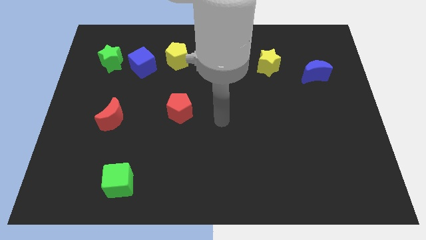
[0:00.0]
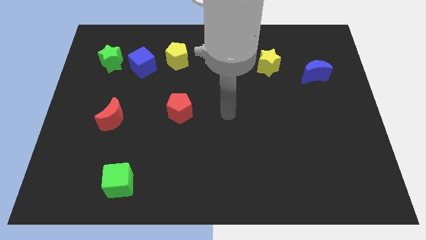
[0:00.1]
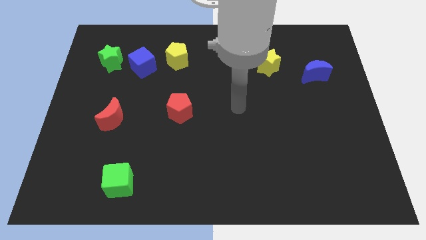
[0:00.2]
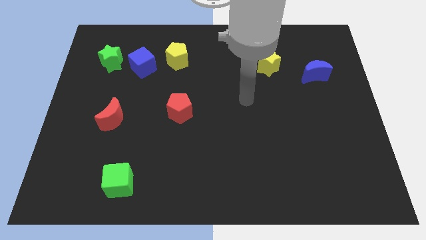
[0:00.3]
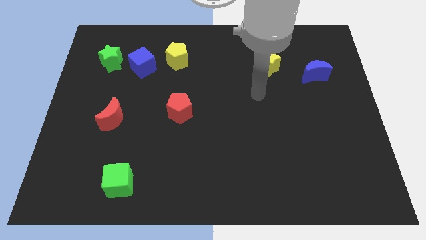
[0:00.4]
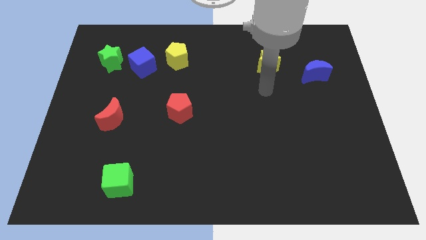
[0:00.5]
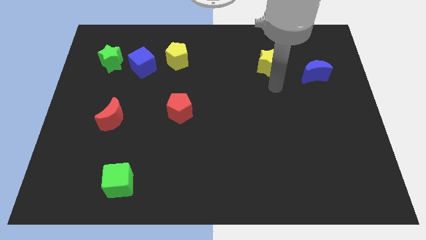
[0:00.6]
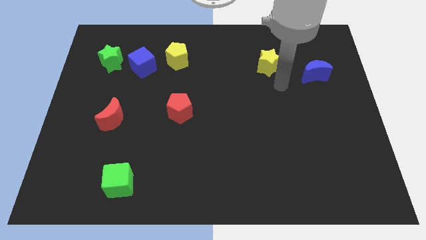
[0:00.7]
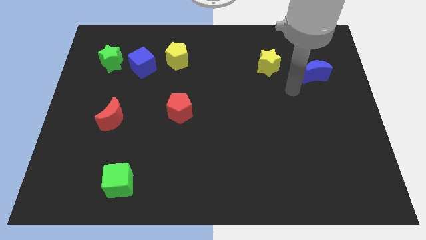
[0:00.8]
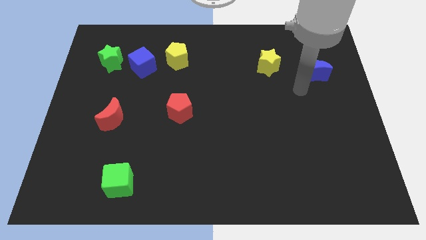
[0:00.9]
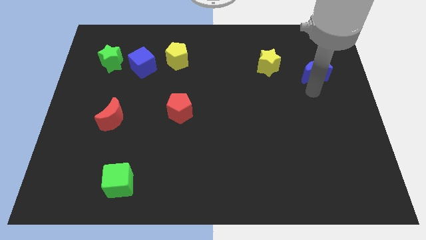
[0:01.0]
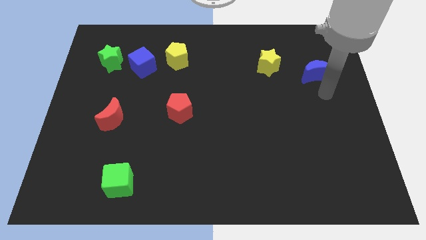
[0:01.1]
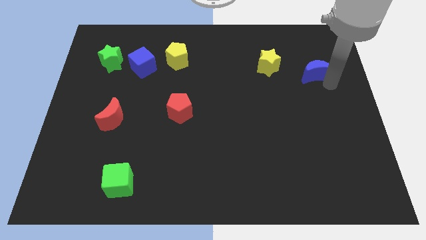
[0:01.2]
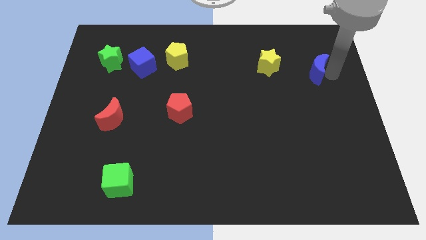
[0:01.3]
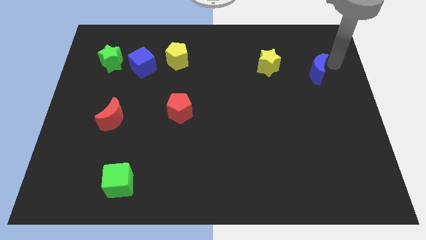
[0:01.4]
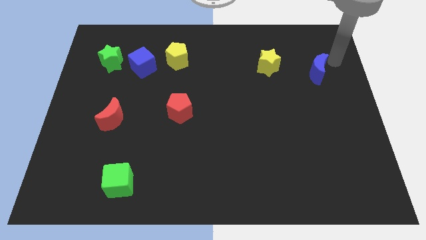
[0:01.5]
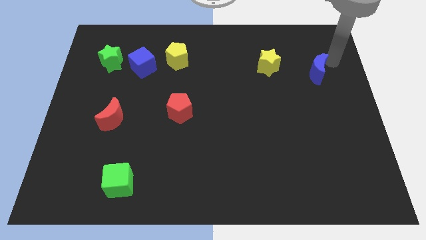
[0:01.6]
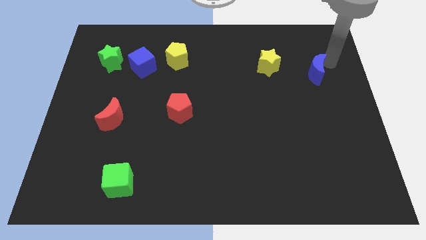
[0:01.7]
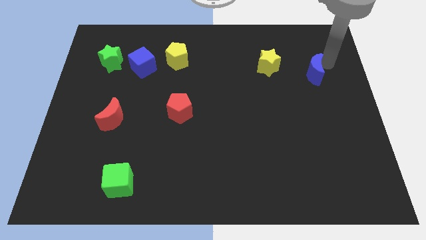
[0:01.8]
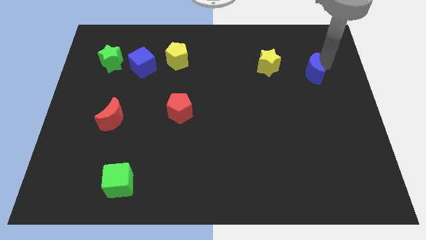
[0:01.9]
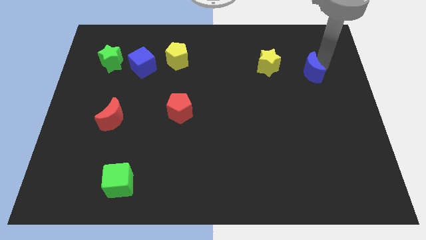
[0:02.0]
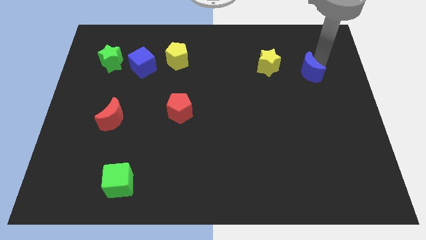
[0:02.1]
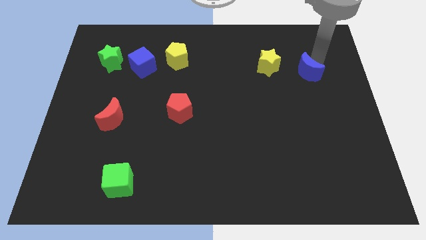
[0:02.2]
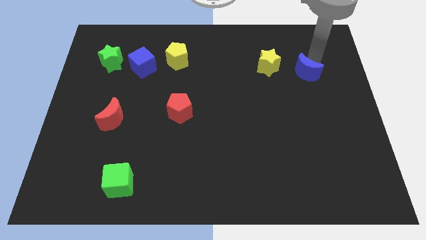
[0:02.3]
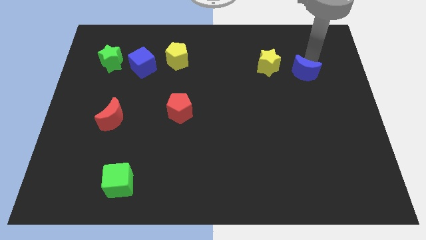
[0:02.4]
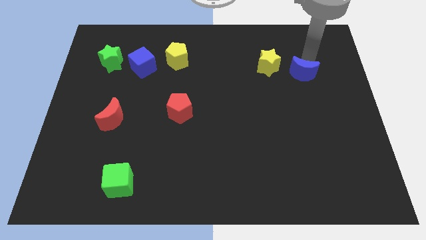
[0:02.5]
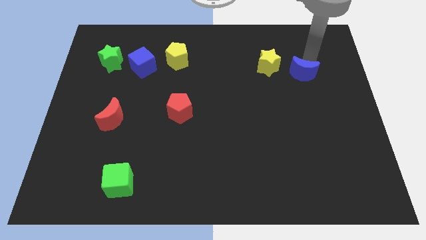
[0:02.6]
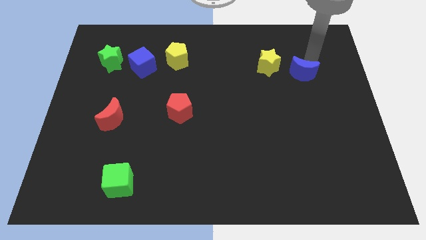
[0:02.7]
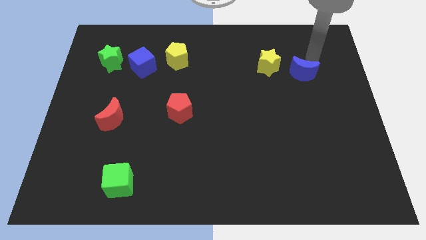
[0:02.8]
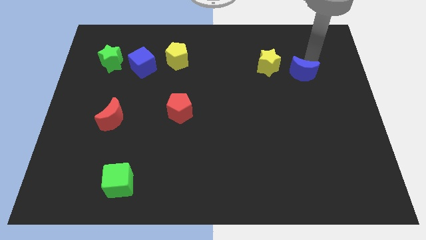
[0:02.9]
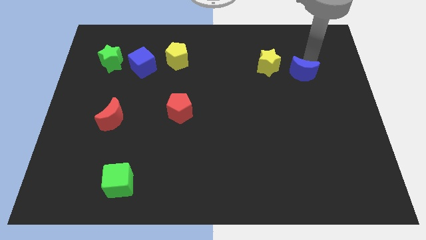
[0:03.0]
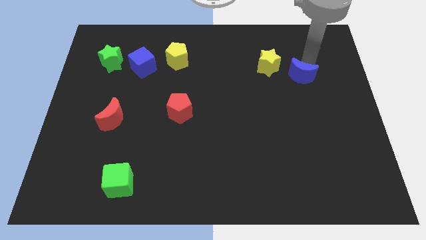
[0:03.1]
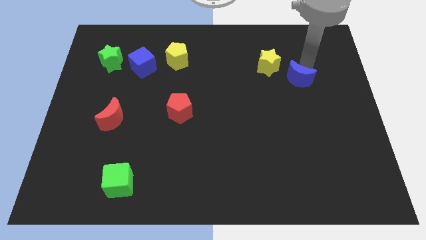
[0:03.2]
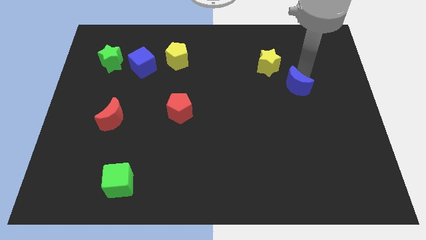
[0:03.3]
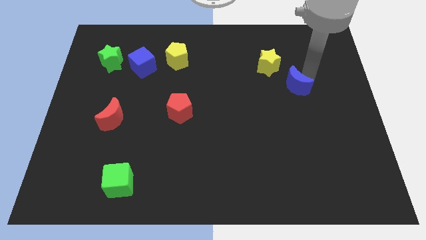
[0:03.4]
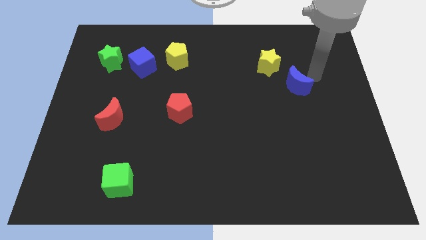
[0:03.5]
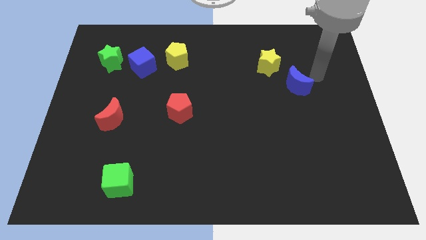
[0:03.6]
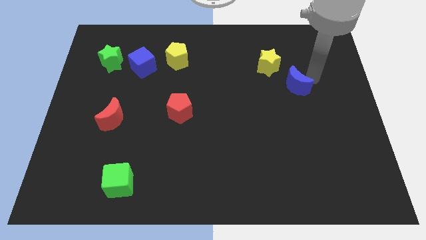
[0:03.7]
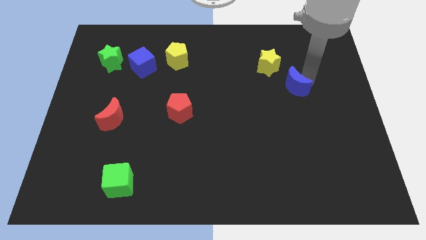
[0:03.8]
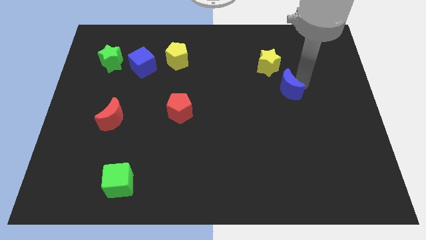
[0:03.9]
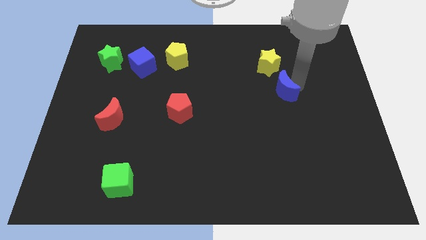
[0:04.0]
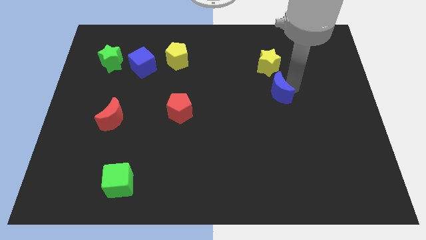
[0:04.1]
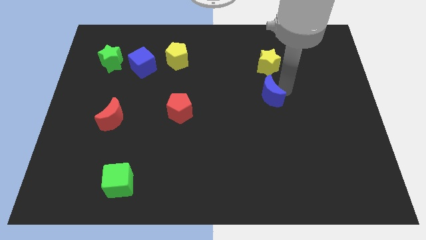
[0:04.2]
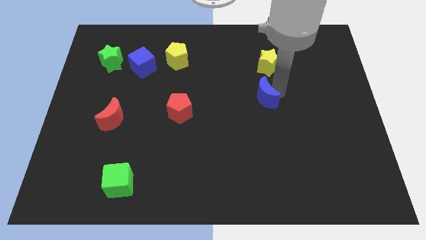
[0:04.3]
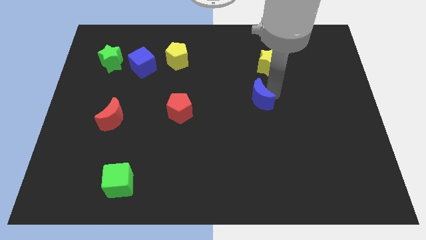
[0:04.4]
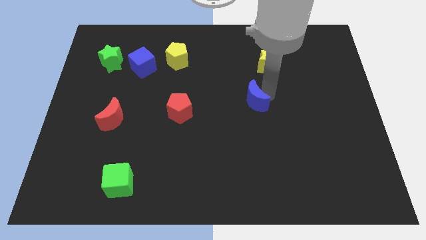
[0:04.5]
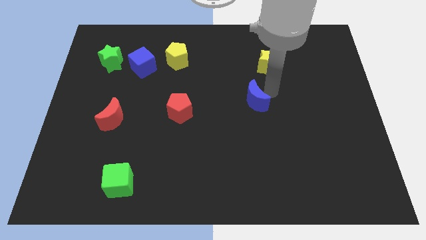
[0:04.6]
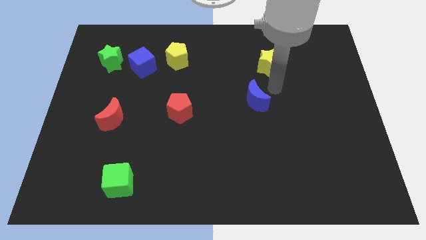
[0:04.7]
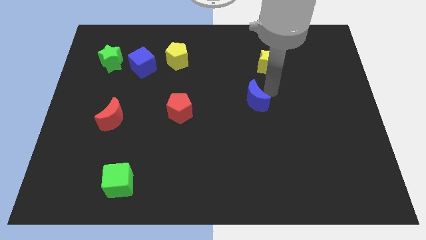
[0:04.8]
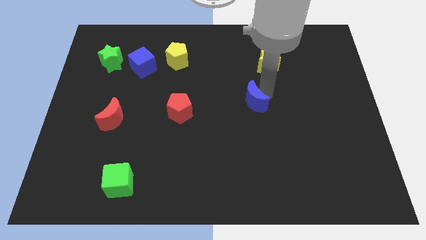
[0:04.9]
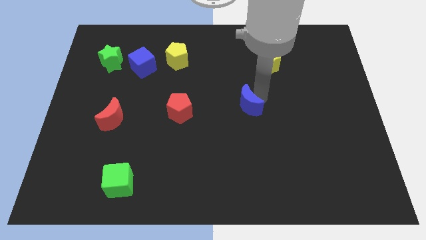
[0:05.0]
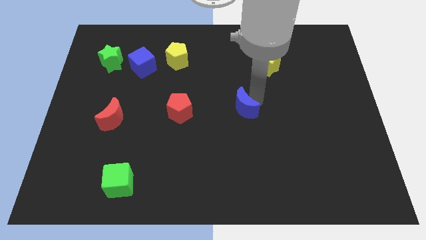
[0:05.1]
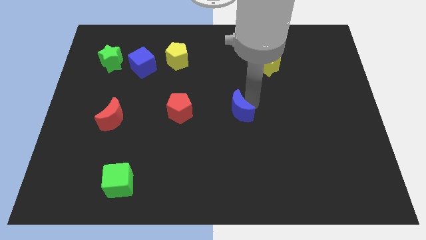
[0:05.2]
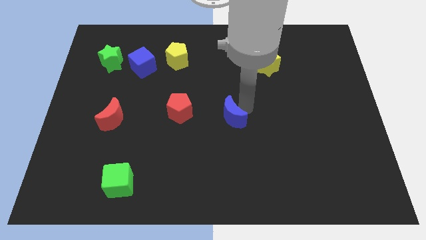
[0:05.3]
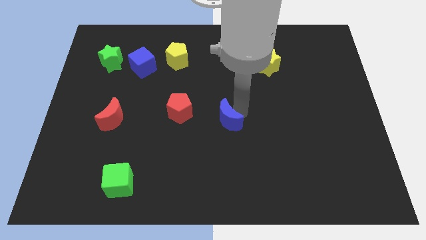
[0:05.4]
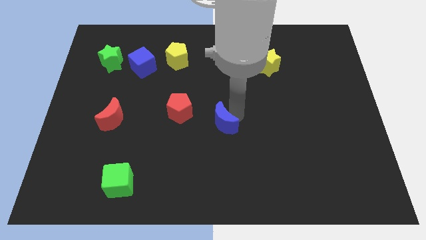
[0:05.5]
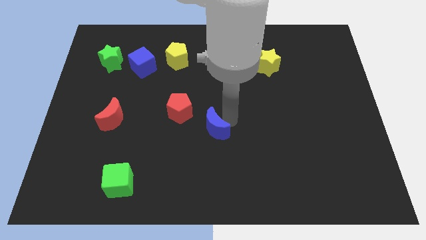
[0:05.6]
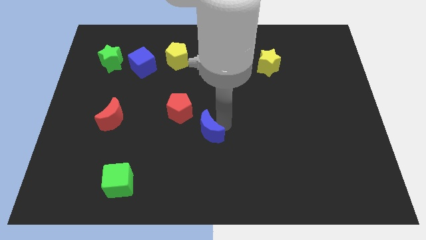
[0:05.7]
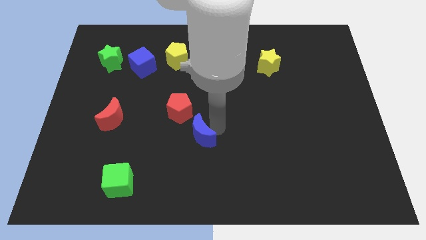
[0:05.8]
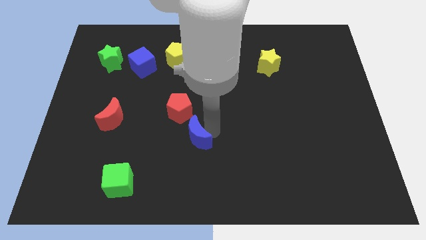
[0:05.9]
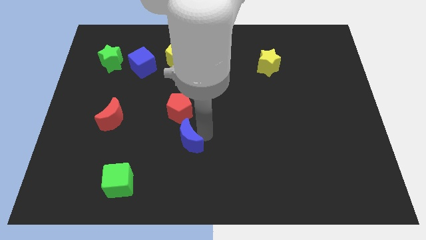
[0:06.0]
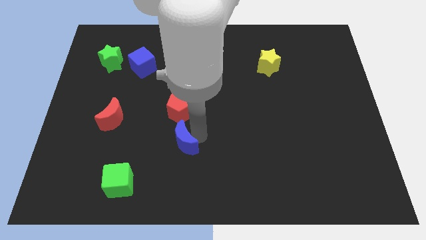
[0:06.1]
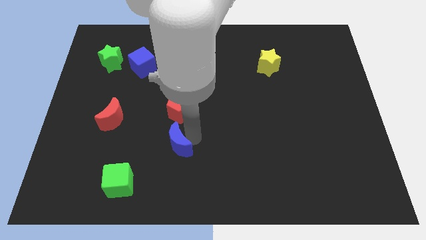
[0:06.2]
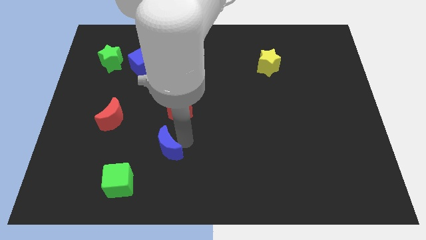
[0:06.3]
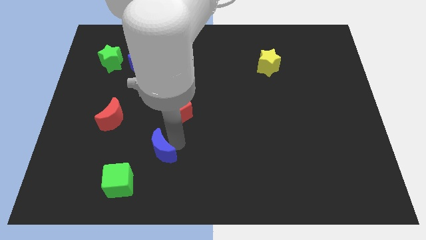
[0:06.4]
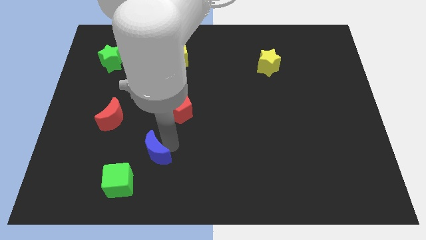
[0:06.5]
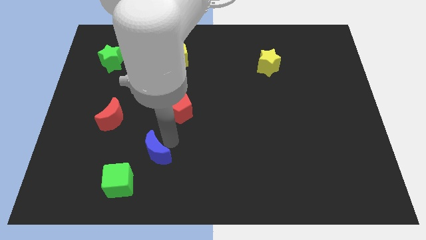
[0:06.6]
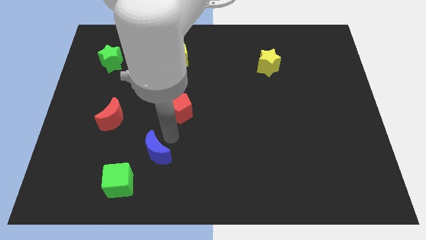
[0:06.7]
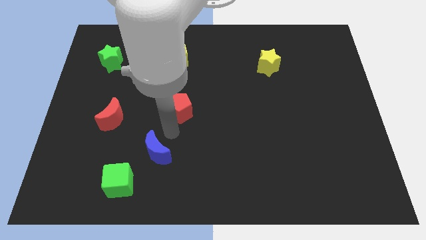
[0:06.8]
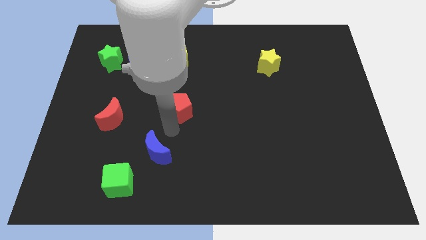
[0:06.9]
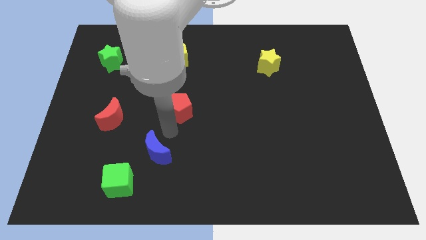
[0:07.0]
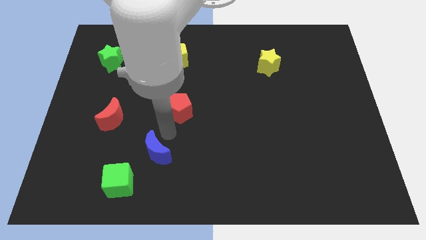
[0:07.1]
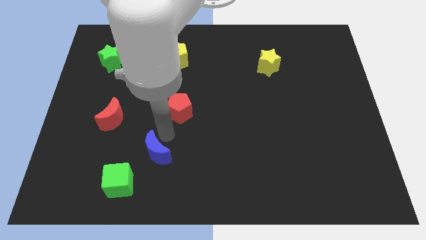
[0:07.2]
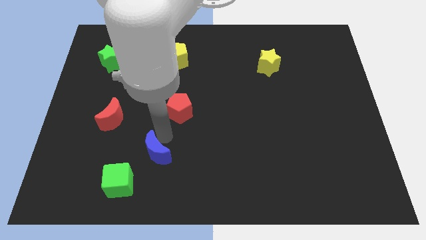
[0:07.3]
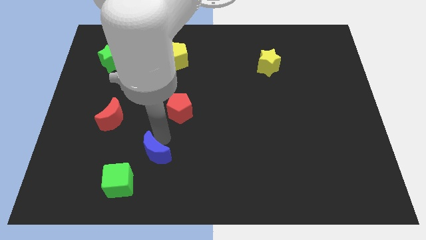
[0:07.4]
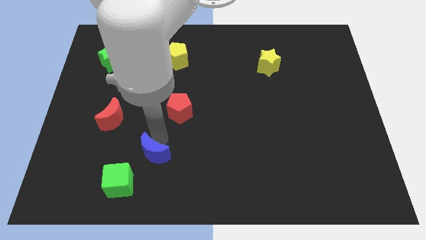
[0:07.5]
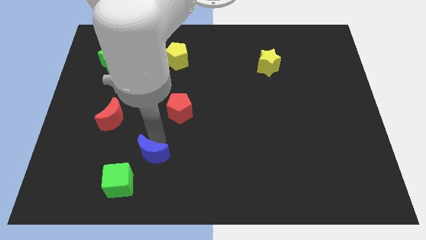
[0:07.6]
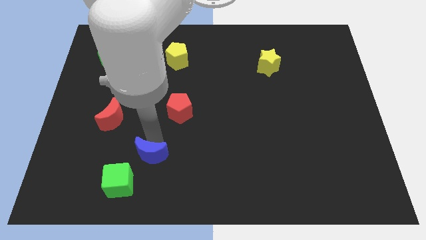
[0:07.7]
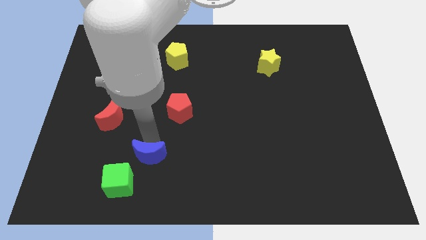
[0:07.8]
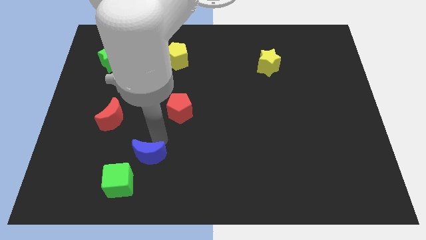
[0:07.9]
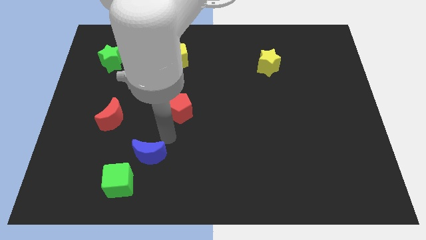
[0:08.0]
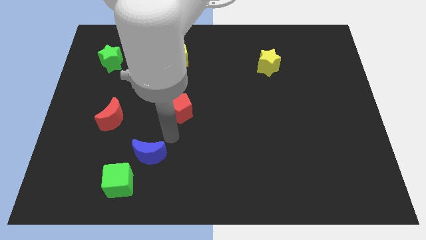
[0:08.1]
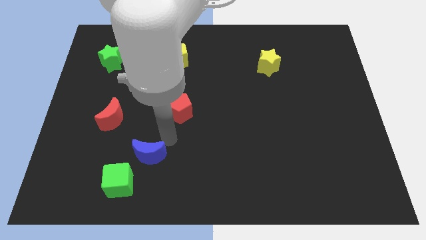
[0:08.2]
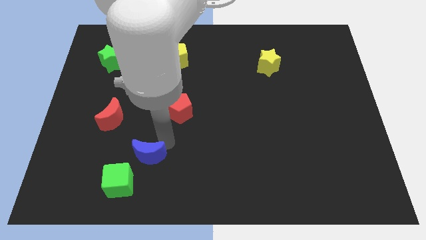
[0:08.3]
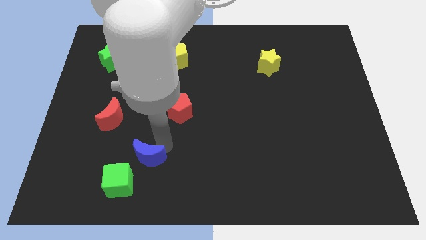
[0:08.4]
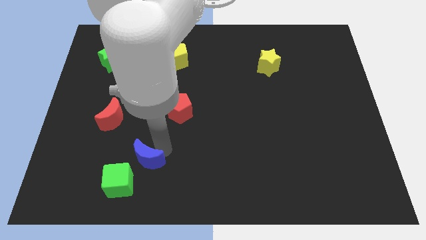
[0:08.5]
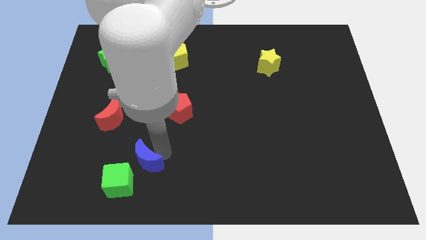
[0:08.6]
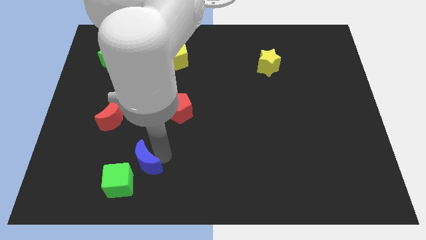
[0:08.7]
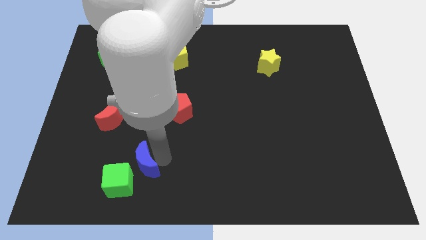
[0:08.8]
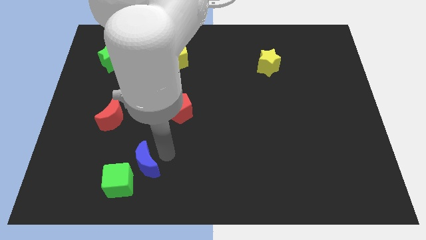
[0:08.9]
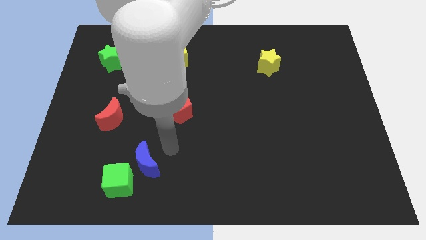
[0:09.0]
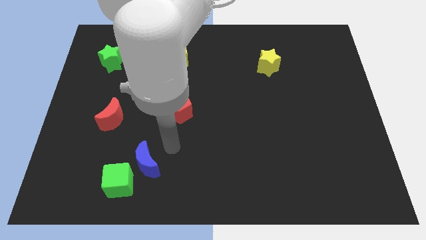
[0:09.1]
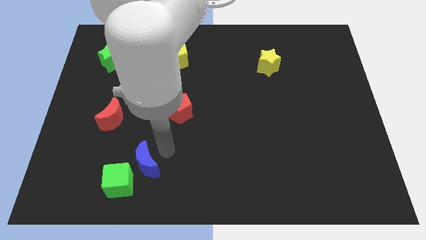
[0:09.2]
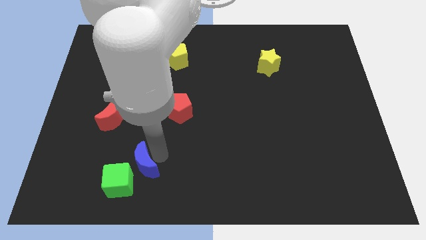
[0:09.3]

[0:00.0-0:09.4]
put the blue moon towards the green cube
